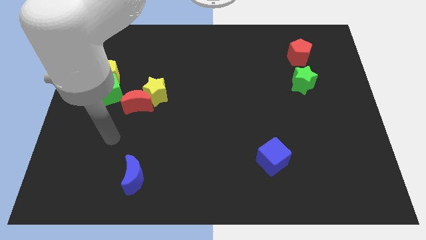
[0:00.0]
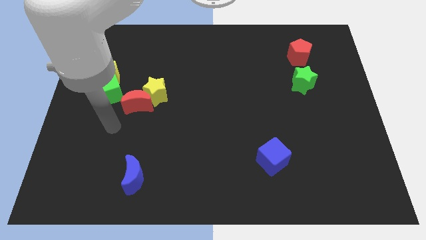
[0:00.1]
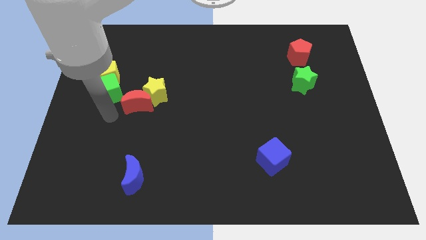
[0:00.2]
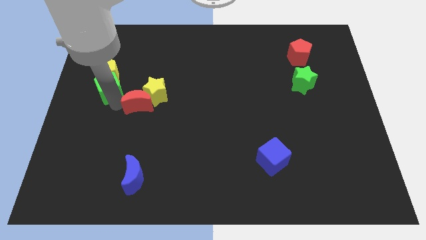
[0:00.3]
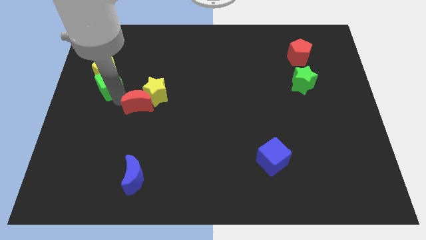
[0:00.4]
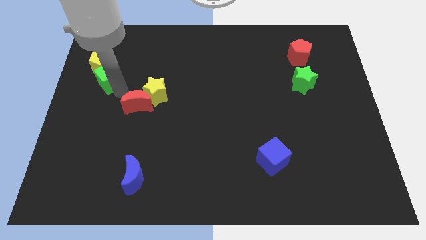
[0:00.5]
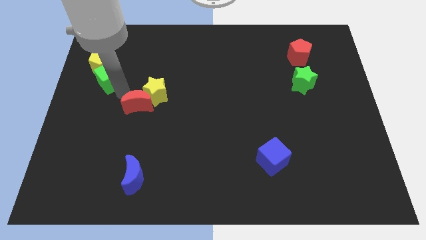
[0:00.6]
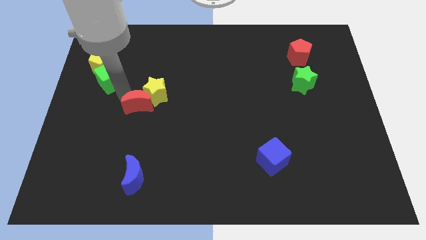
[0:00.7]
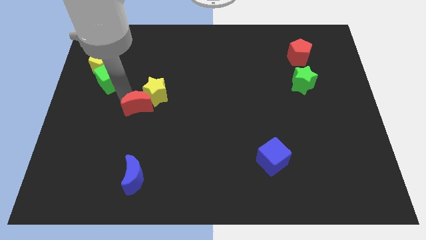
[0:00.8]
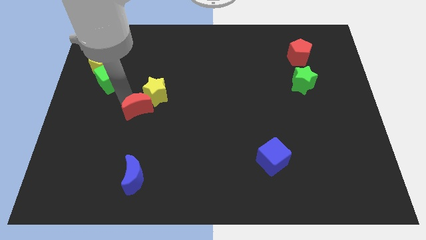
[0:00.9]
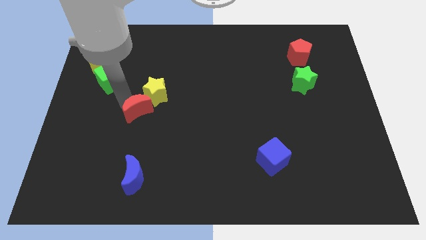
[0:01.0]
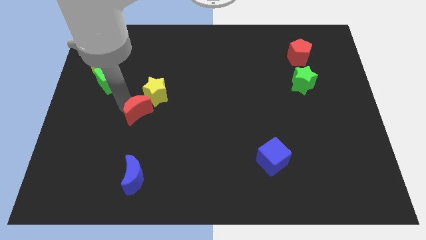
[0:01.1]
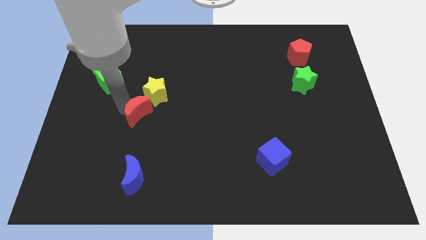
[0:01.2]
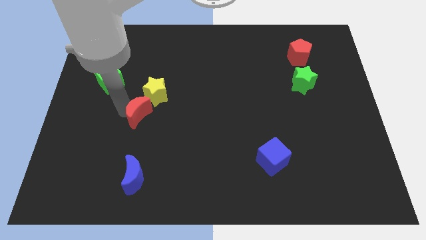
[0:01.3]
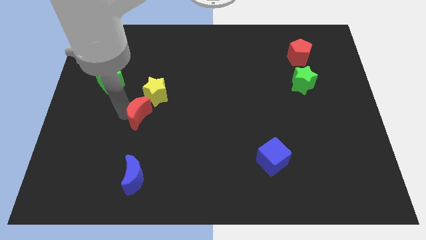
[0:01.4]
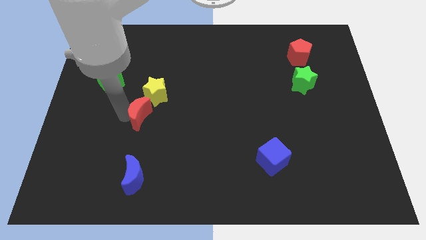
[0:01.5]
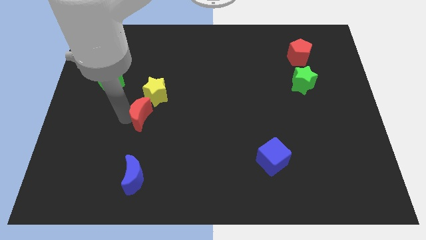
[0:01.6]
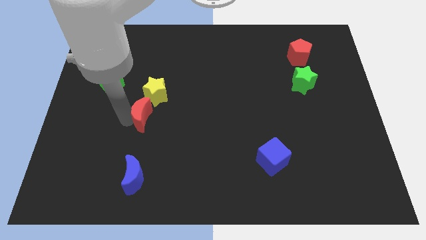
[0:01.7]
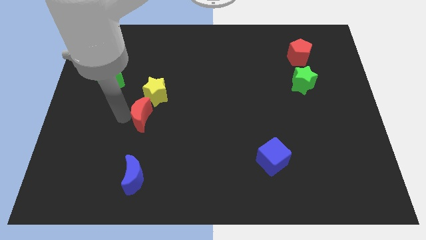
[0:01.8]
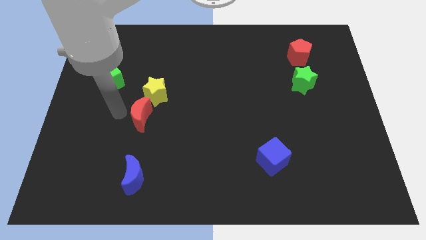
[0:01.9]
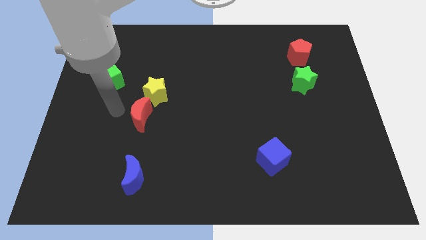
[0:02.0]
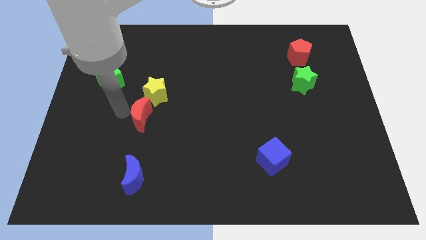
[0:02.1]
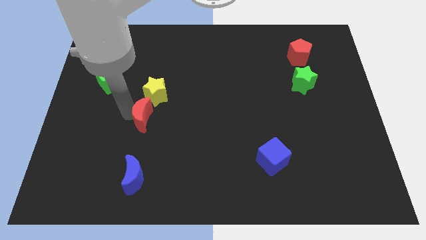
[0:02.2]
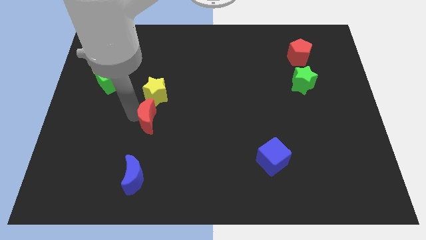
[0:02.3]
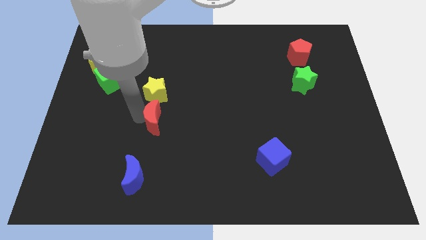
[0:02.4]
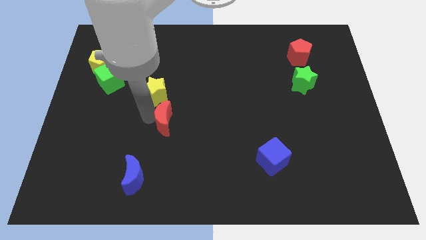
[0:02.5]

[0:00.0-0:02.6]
slightly move the red moon diagonally downwards and right

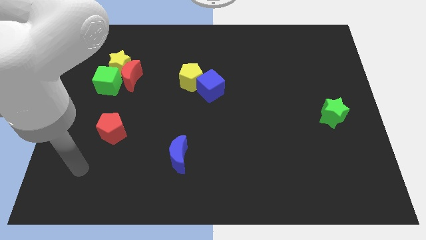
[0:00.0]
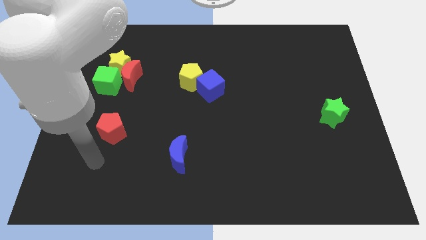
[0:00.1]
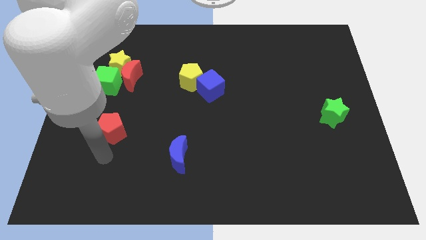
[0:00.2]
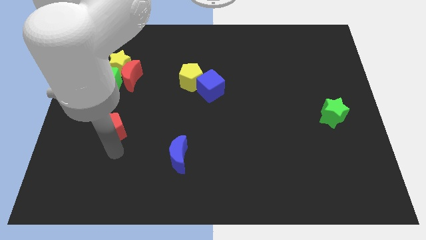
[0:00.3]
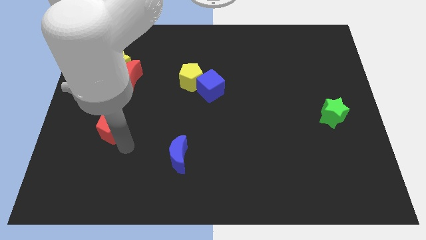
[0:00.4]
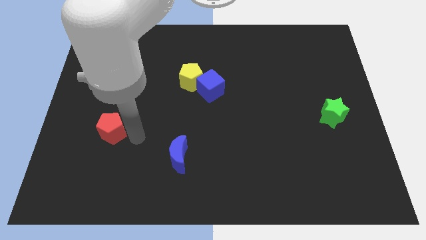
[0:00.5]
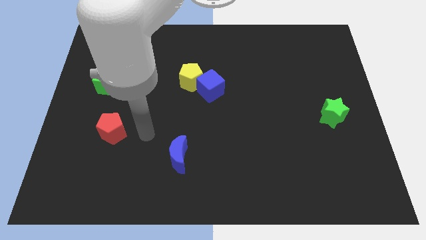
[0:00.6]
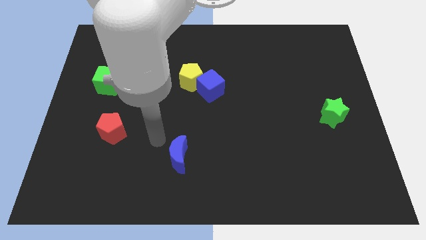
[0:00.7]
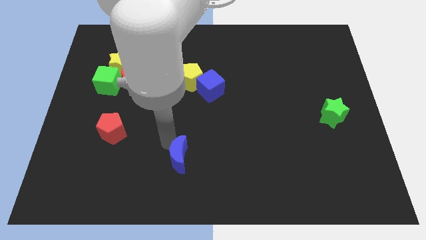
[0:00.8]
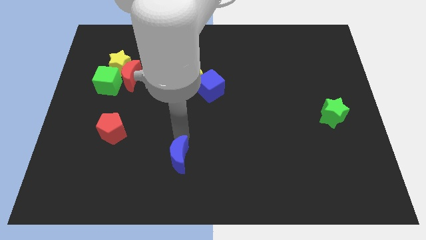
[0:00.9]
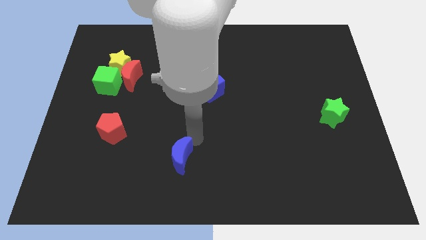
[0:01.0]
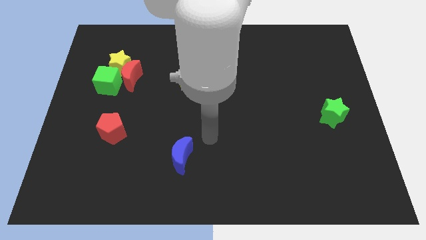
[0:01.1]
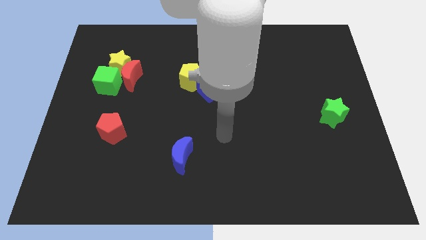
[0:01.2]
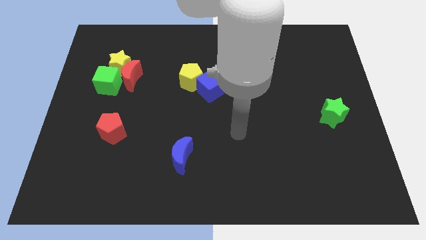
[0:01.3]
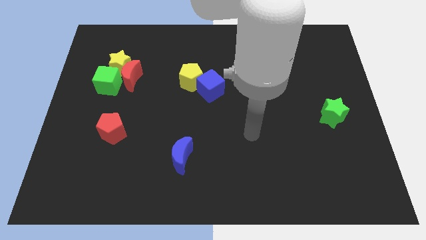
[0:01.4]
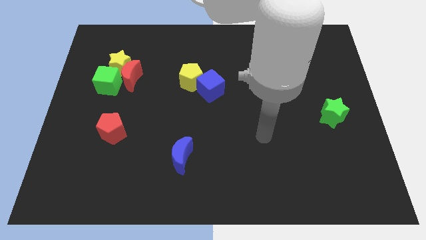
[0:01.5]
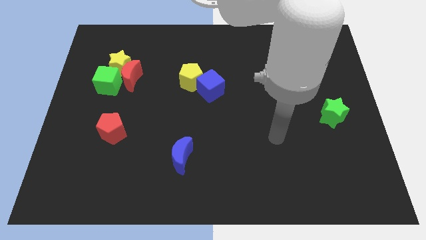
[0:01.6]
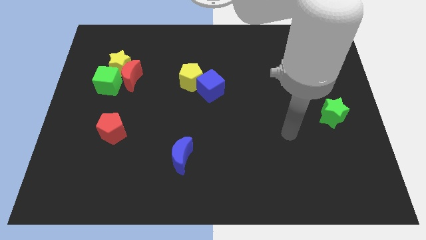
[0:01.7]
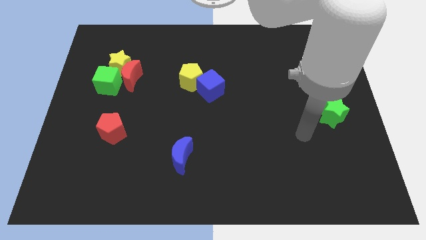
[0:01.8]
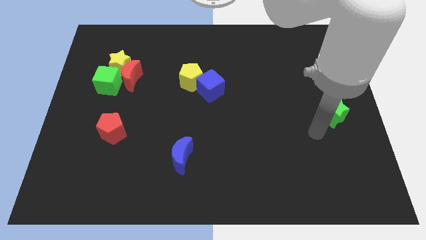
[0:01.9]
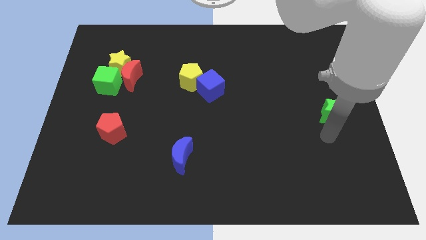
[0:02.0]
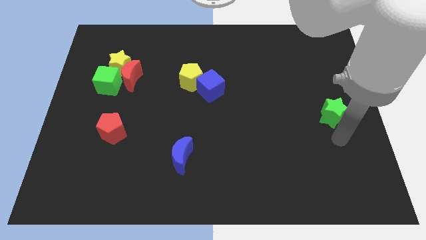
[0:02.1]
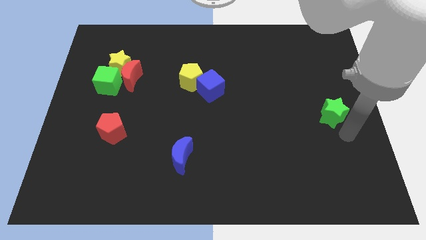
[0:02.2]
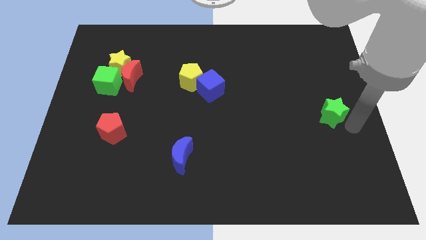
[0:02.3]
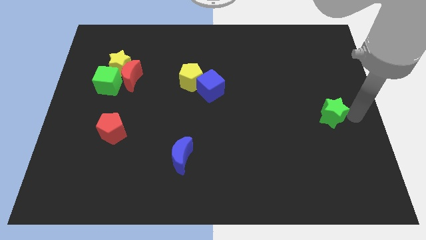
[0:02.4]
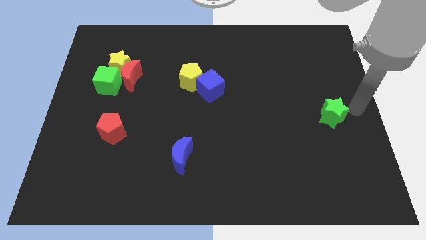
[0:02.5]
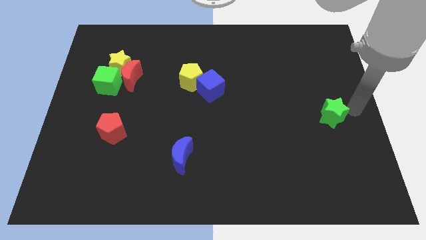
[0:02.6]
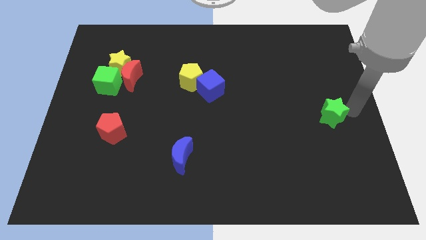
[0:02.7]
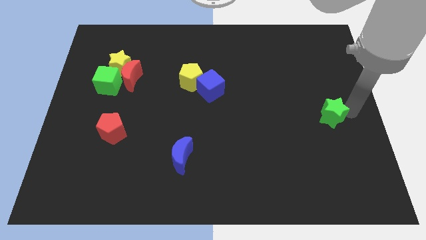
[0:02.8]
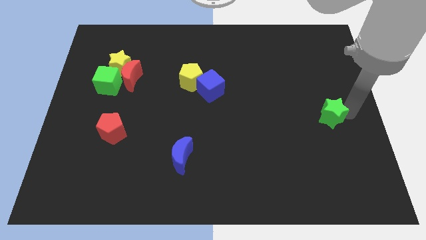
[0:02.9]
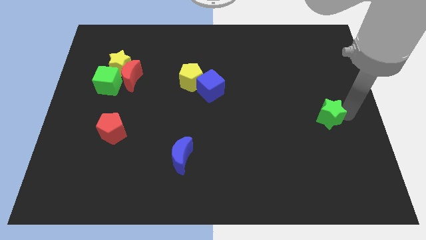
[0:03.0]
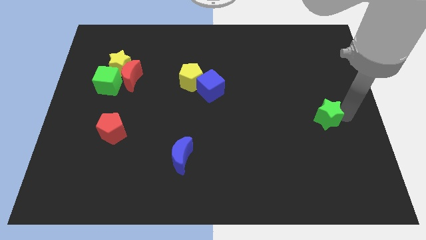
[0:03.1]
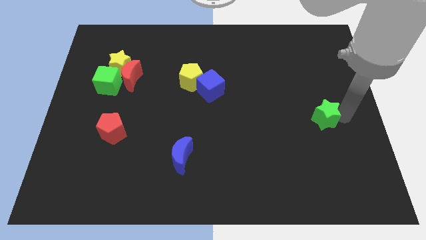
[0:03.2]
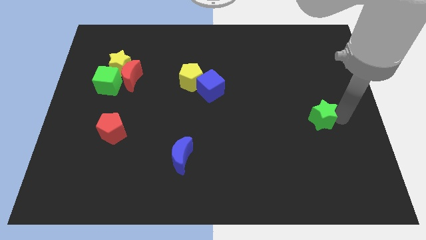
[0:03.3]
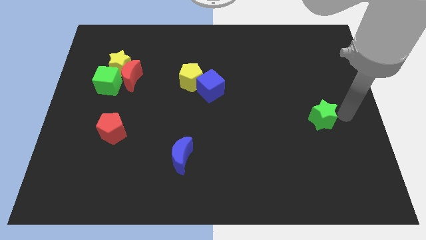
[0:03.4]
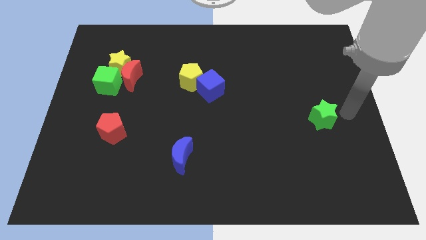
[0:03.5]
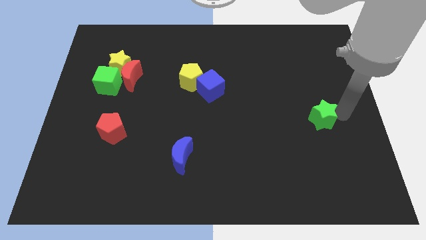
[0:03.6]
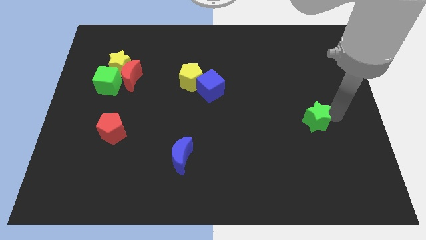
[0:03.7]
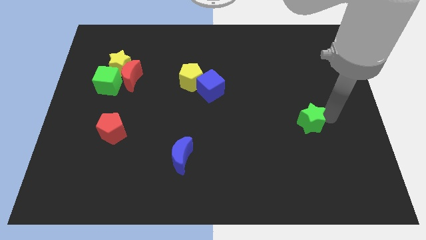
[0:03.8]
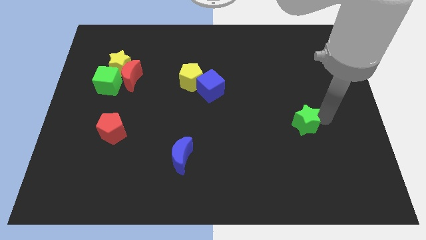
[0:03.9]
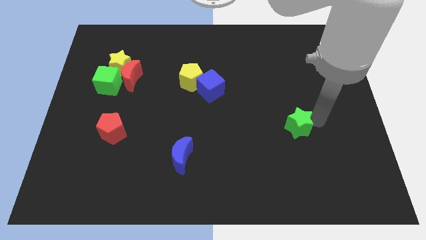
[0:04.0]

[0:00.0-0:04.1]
slide the green star a bit left

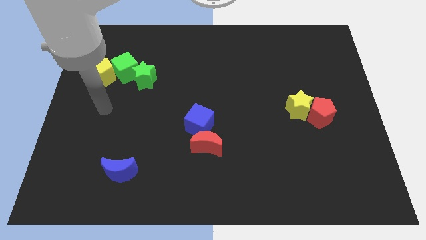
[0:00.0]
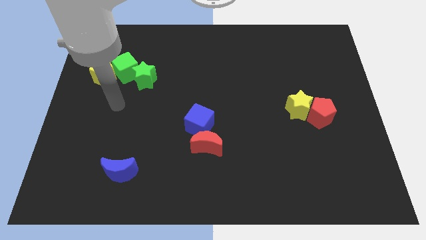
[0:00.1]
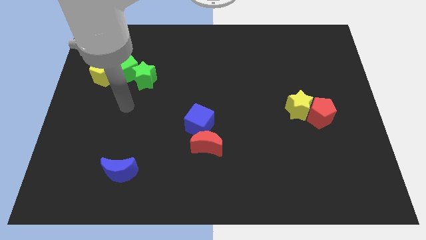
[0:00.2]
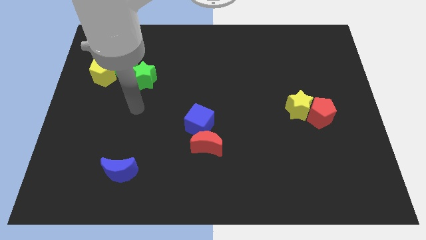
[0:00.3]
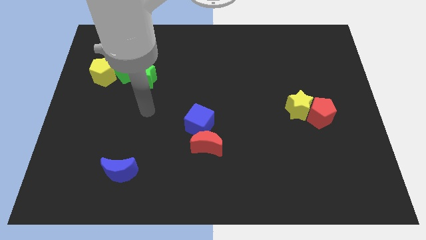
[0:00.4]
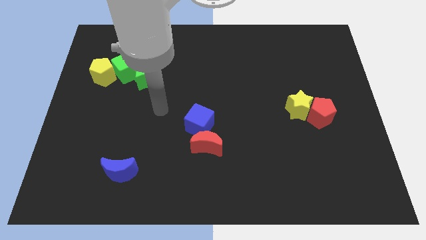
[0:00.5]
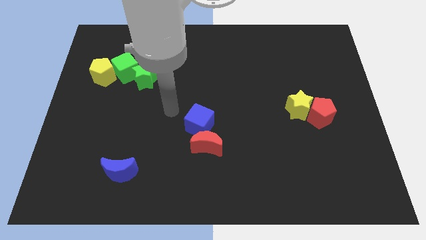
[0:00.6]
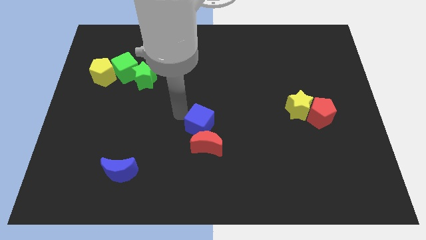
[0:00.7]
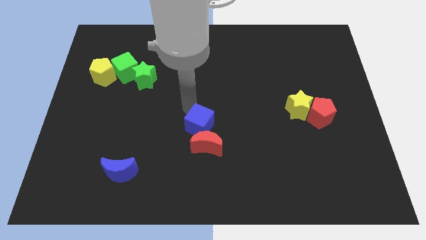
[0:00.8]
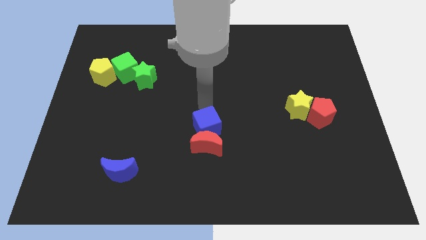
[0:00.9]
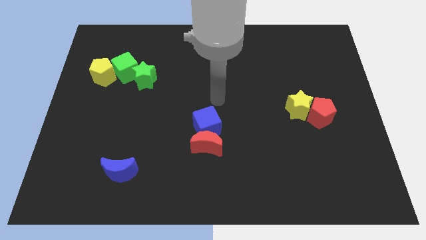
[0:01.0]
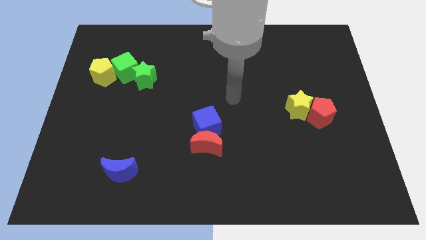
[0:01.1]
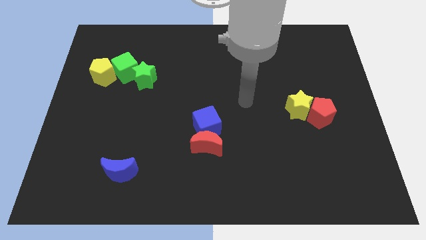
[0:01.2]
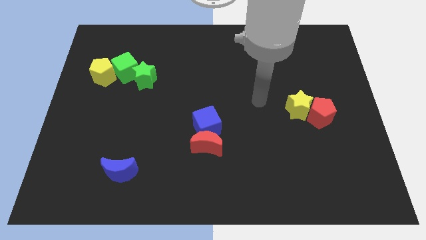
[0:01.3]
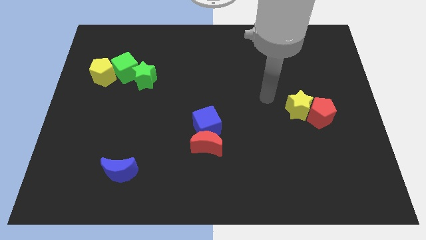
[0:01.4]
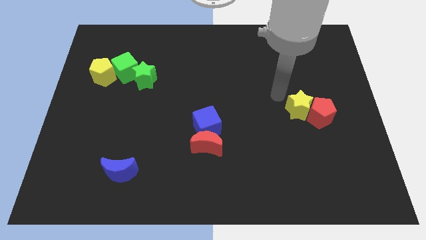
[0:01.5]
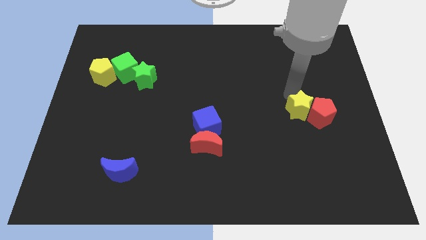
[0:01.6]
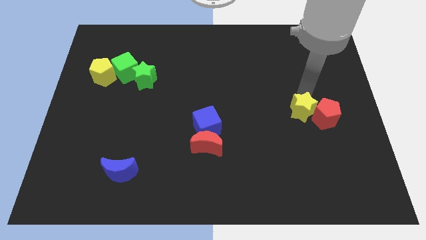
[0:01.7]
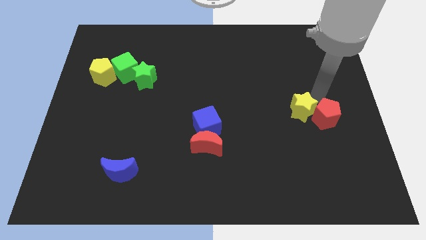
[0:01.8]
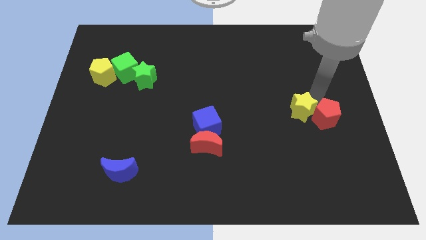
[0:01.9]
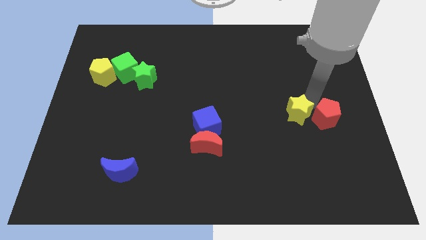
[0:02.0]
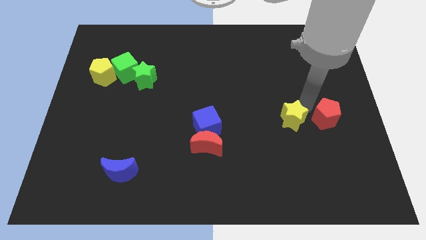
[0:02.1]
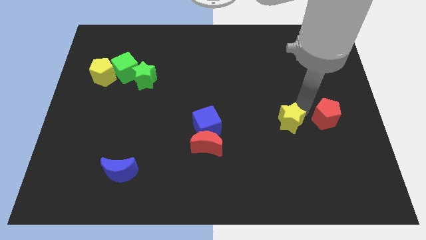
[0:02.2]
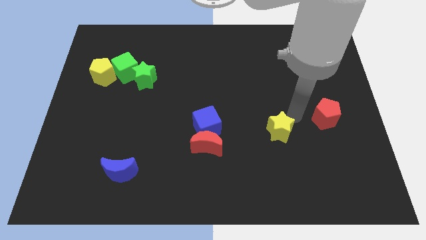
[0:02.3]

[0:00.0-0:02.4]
slide the yellow star diagonally down and left a little
